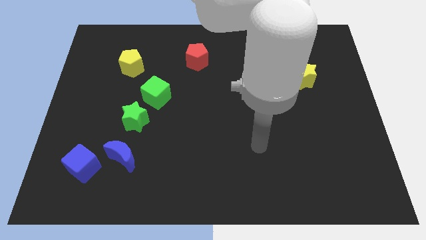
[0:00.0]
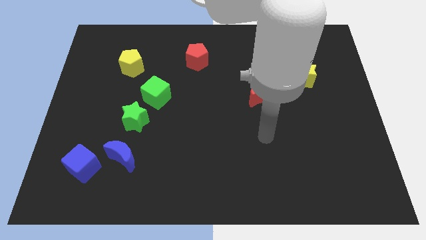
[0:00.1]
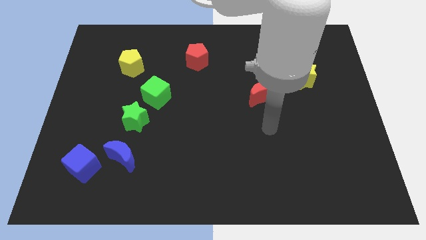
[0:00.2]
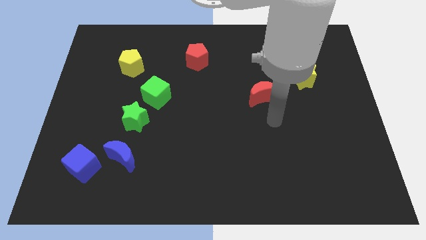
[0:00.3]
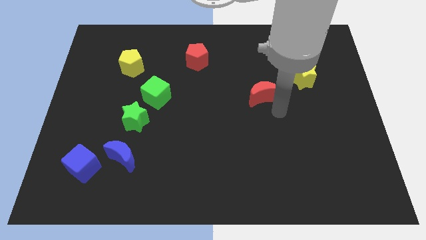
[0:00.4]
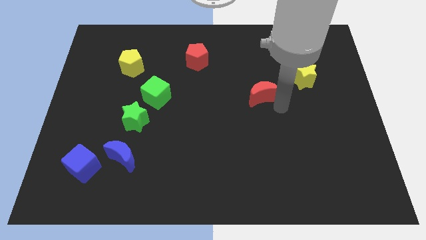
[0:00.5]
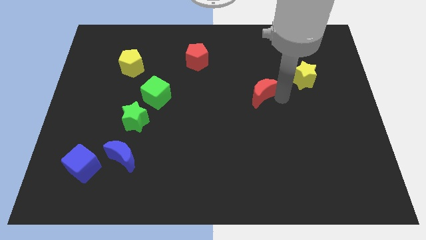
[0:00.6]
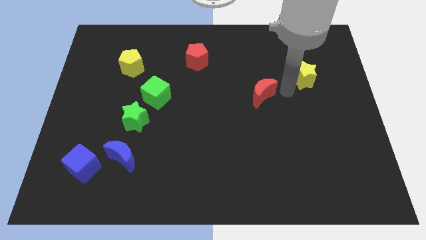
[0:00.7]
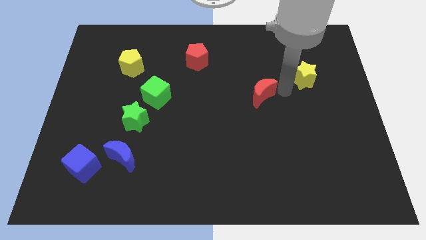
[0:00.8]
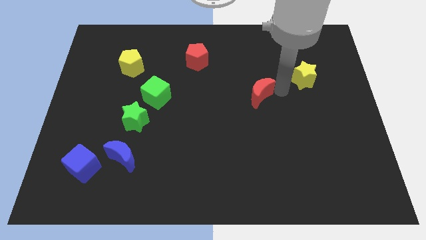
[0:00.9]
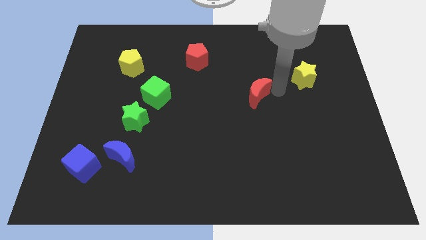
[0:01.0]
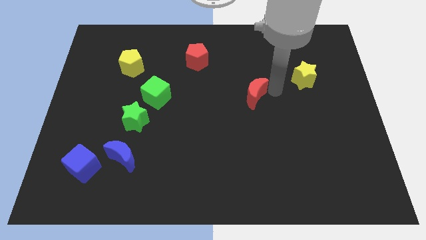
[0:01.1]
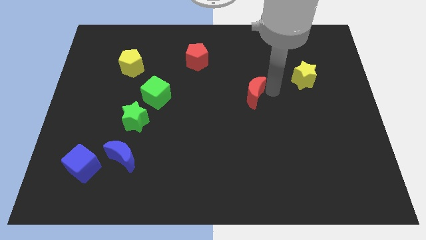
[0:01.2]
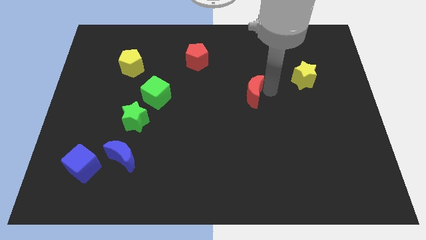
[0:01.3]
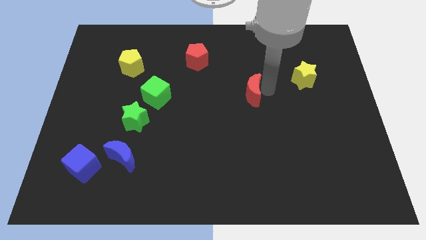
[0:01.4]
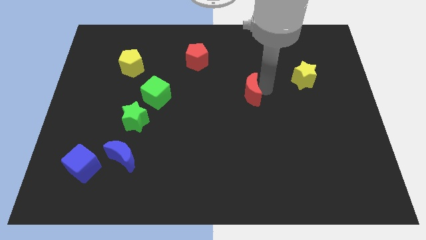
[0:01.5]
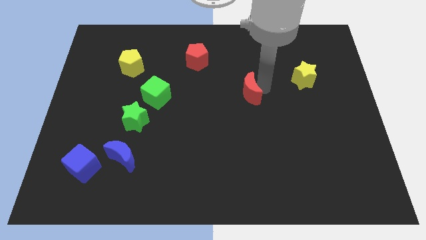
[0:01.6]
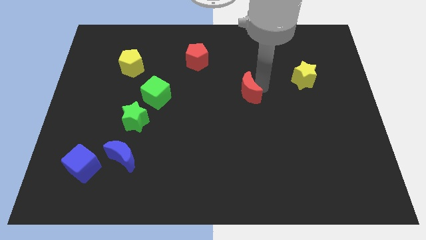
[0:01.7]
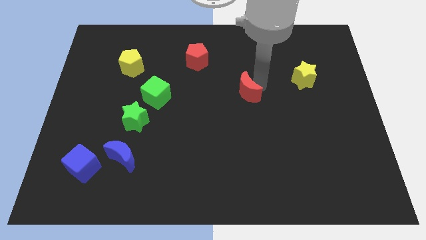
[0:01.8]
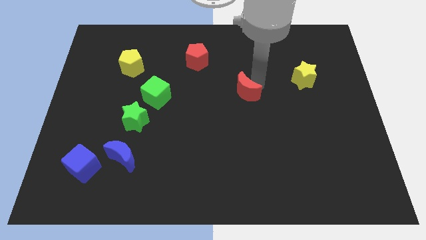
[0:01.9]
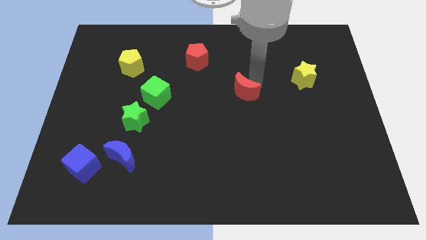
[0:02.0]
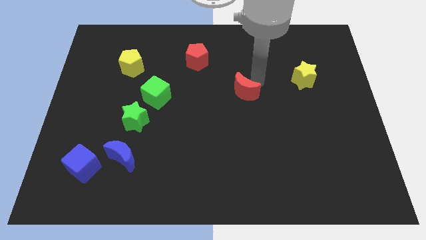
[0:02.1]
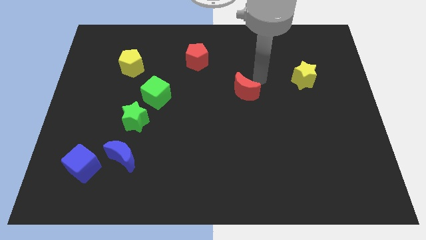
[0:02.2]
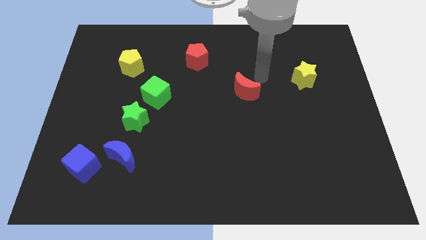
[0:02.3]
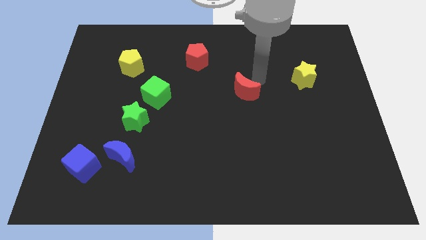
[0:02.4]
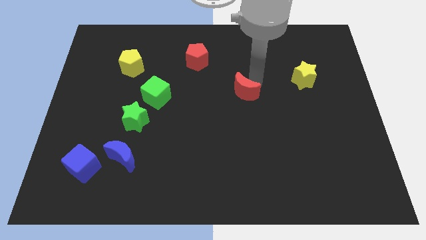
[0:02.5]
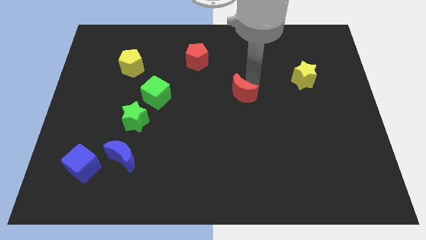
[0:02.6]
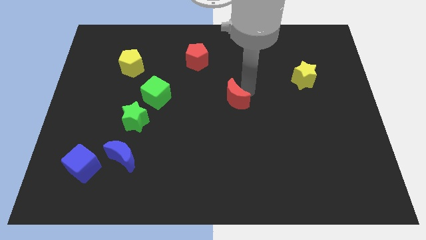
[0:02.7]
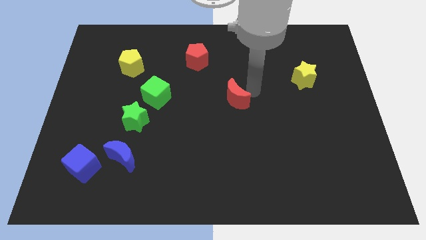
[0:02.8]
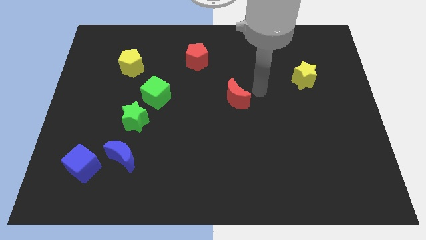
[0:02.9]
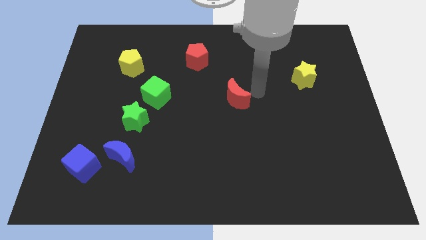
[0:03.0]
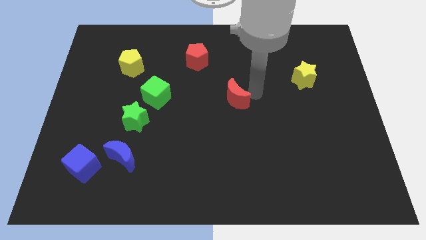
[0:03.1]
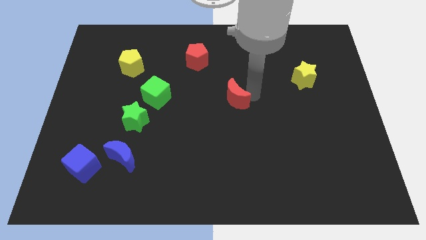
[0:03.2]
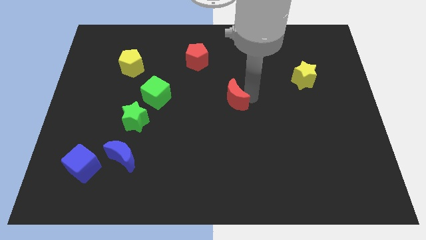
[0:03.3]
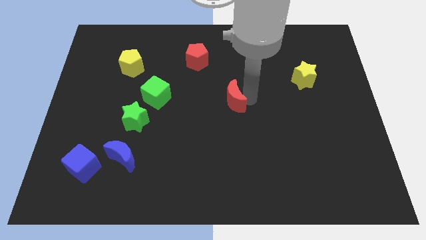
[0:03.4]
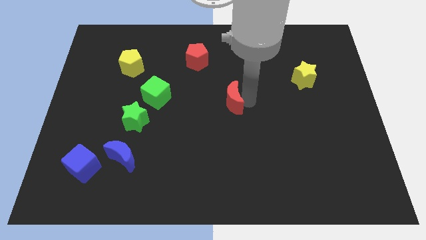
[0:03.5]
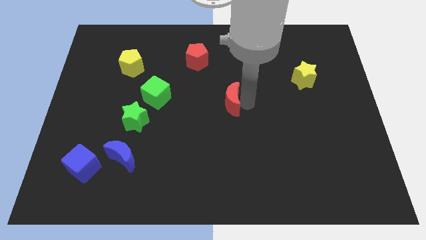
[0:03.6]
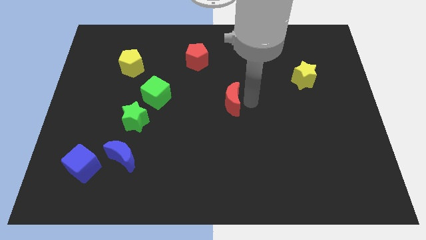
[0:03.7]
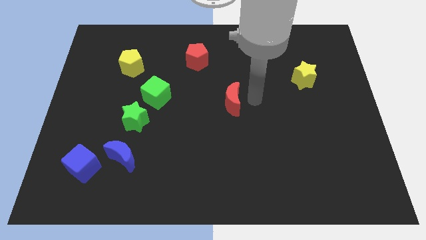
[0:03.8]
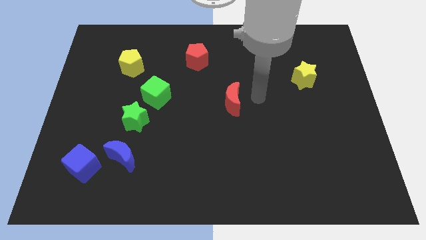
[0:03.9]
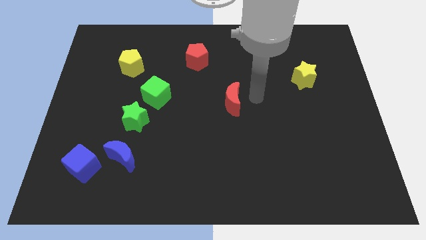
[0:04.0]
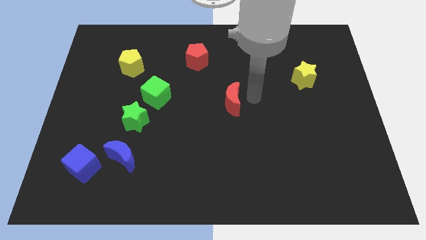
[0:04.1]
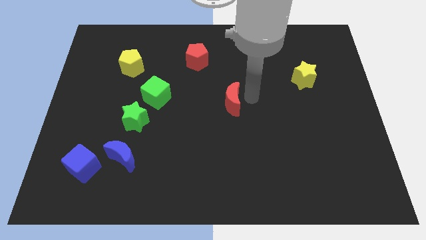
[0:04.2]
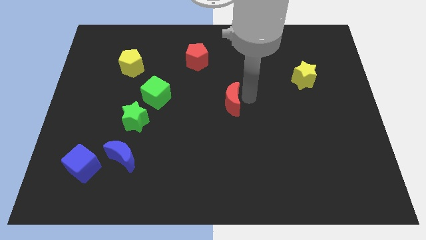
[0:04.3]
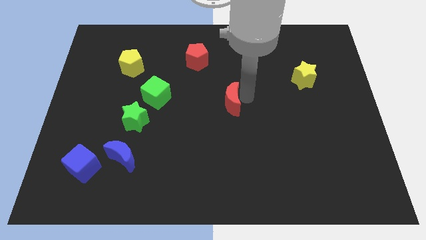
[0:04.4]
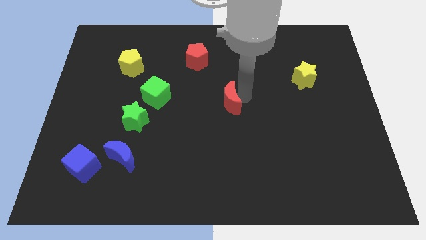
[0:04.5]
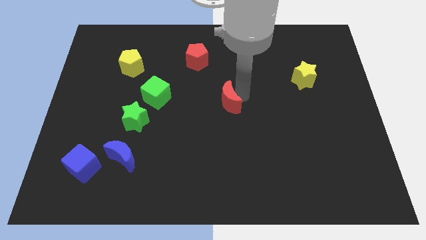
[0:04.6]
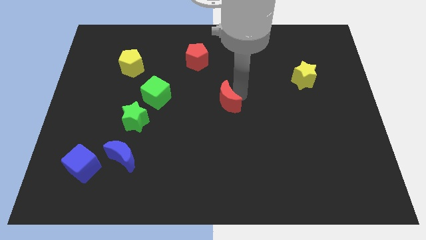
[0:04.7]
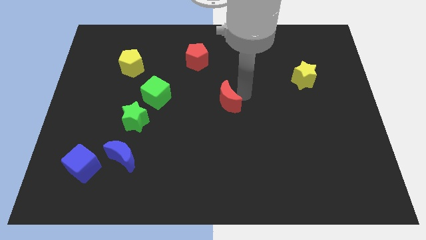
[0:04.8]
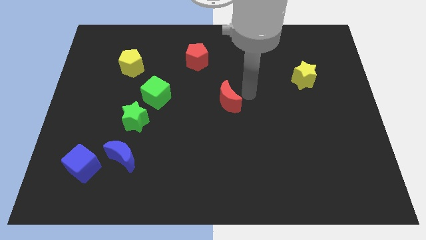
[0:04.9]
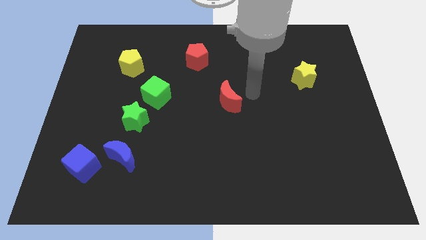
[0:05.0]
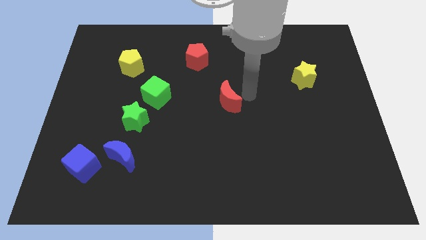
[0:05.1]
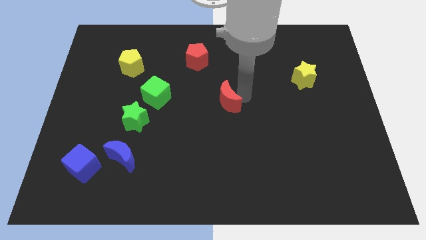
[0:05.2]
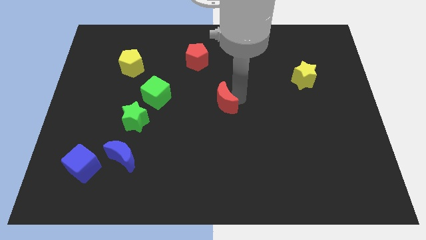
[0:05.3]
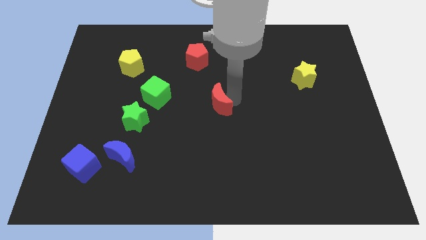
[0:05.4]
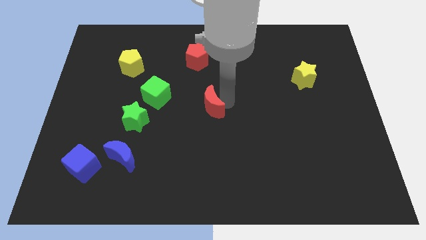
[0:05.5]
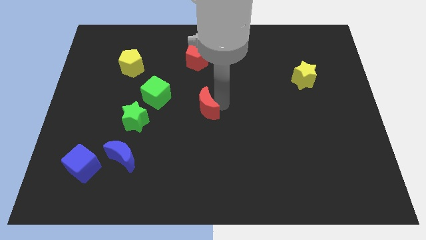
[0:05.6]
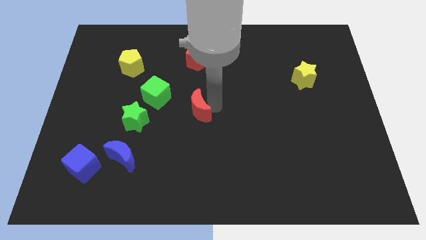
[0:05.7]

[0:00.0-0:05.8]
push the red moon to the bottom right of the green cube

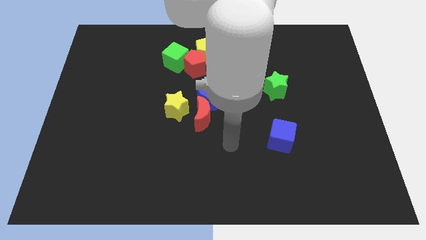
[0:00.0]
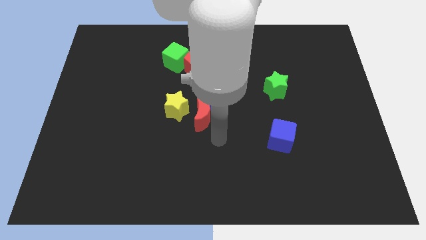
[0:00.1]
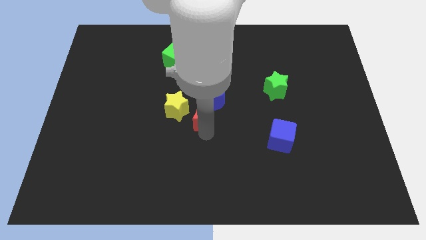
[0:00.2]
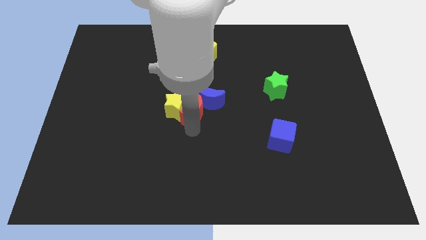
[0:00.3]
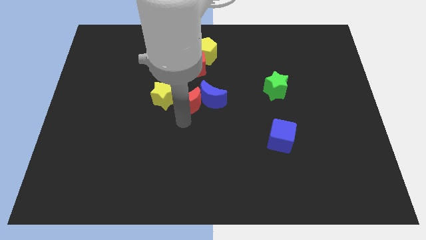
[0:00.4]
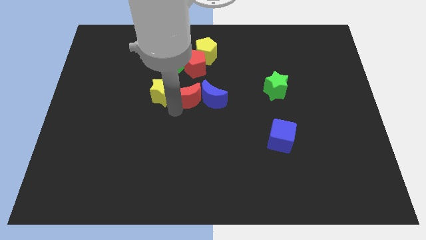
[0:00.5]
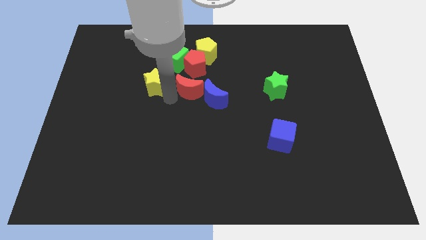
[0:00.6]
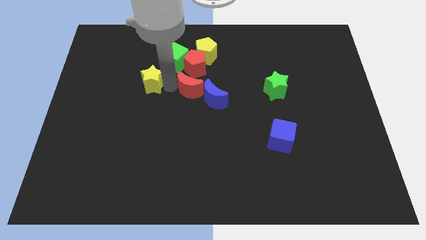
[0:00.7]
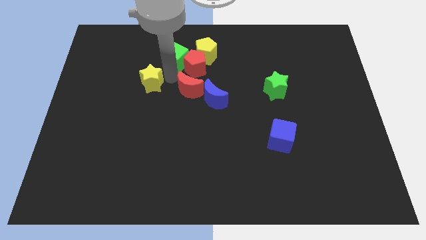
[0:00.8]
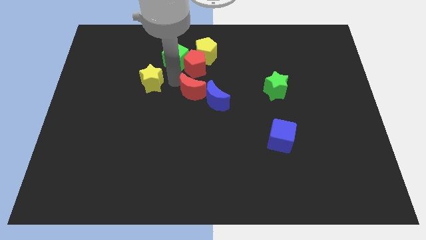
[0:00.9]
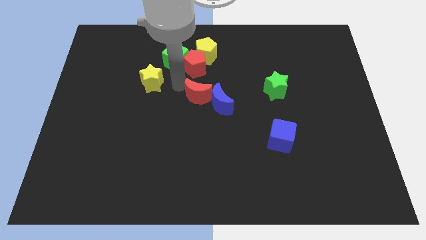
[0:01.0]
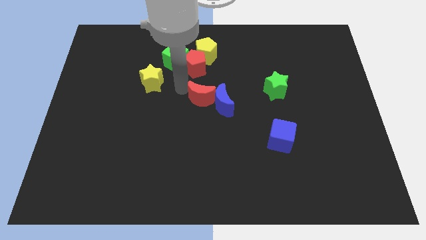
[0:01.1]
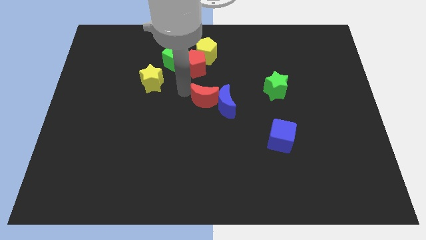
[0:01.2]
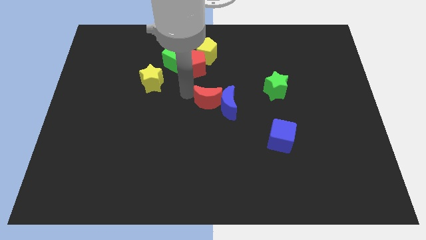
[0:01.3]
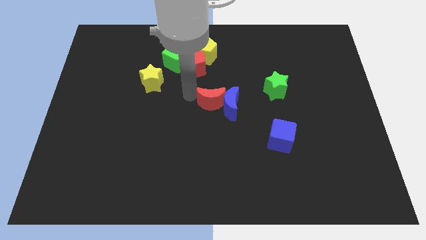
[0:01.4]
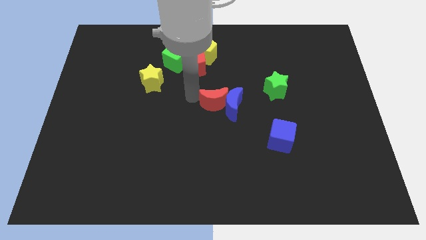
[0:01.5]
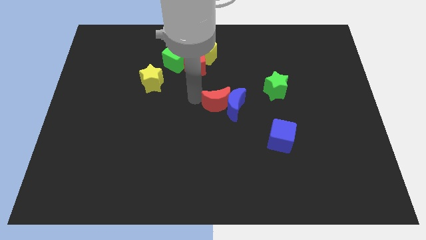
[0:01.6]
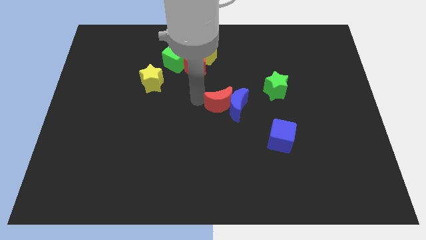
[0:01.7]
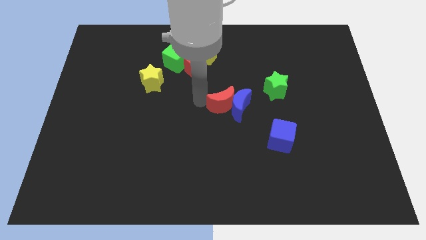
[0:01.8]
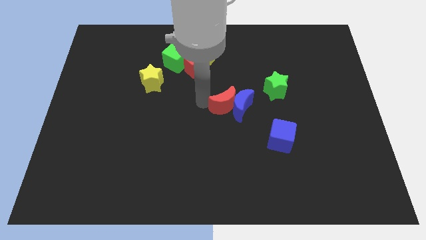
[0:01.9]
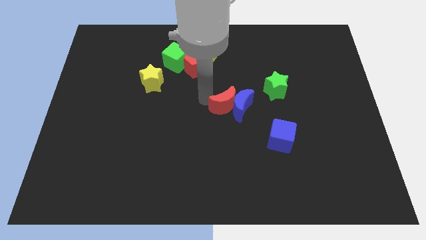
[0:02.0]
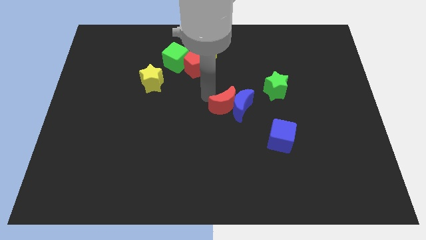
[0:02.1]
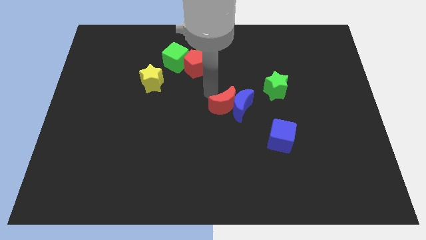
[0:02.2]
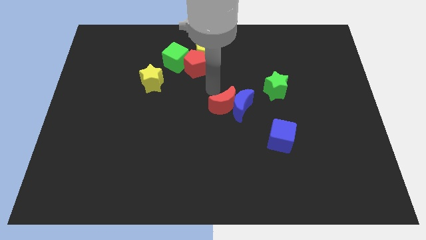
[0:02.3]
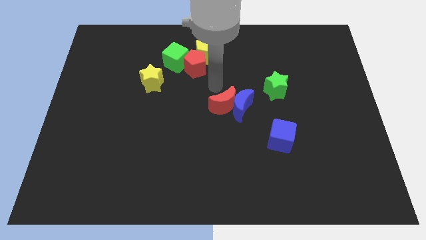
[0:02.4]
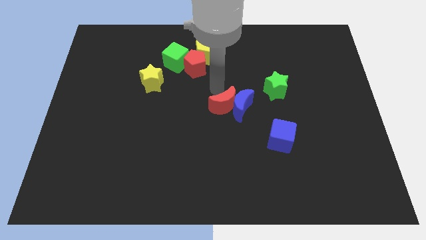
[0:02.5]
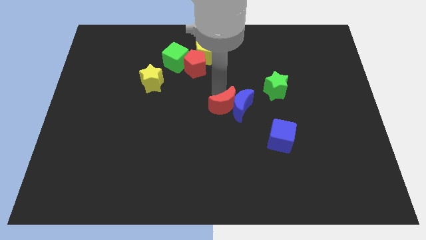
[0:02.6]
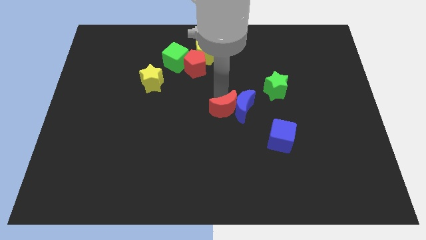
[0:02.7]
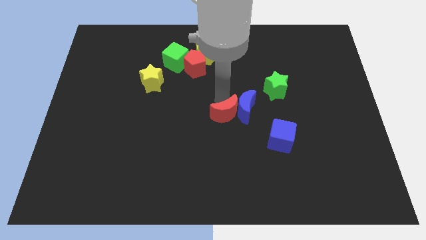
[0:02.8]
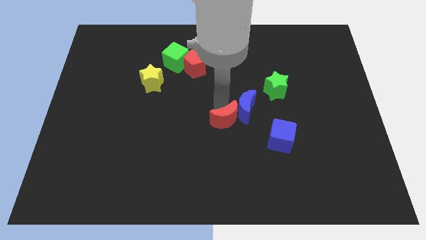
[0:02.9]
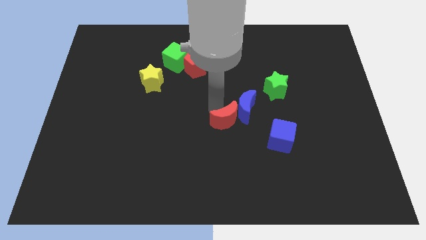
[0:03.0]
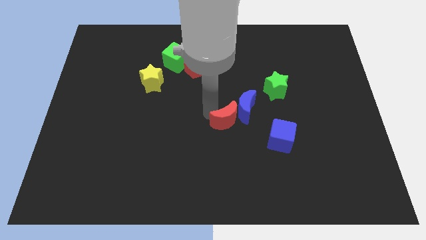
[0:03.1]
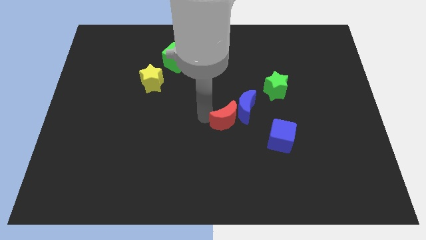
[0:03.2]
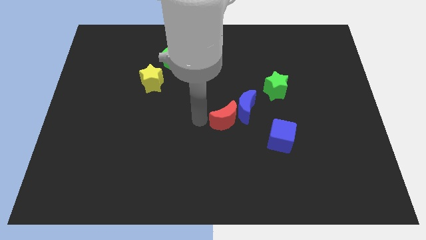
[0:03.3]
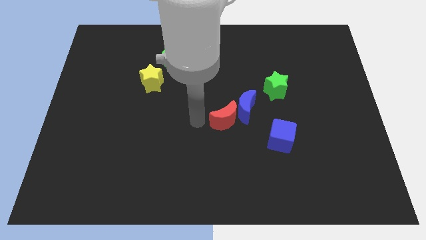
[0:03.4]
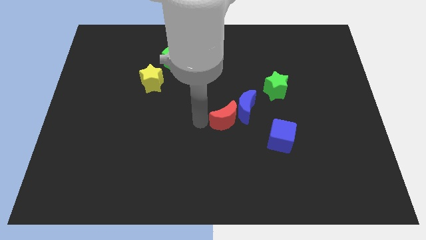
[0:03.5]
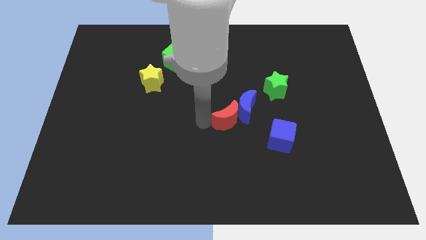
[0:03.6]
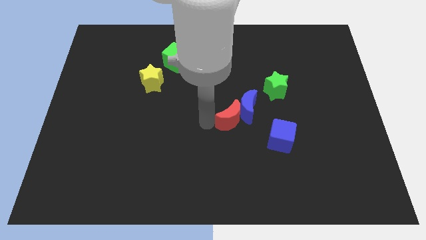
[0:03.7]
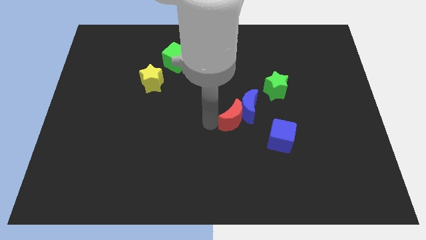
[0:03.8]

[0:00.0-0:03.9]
move the red moon to the top left of the blue cube
